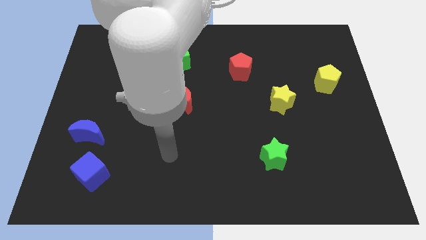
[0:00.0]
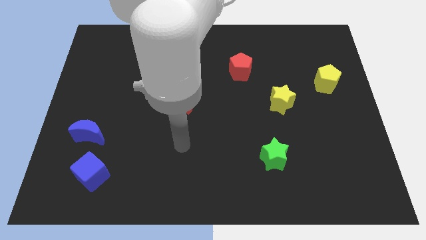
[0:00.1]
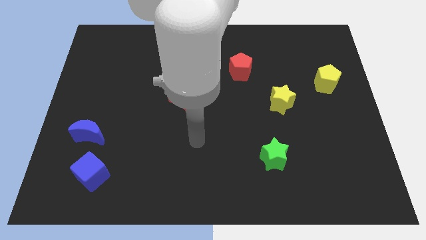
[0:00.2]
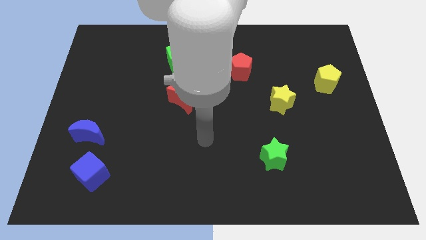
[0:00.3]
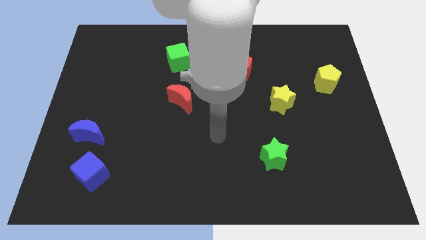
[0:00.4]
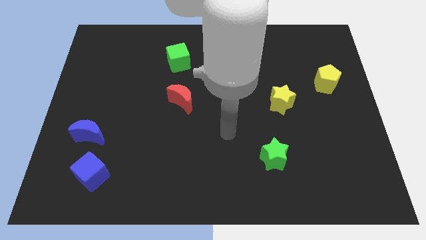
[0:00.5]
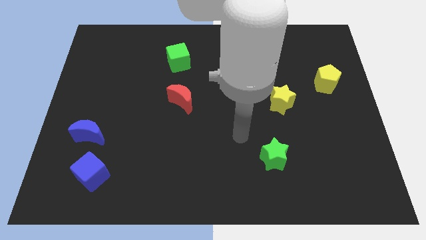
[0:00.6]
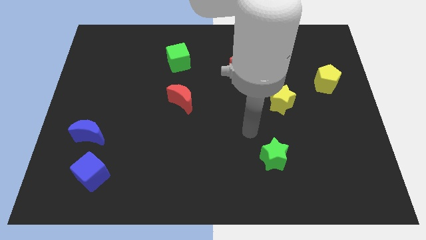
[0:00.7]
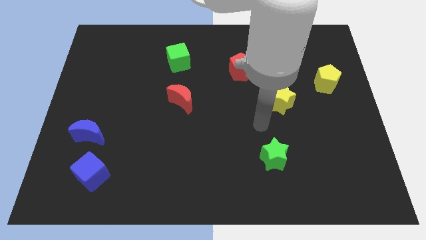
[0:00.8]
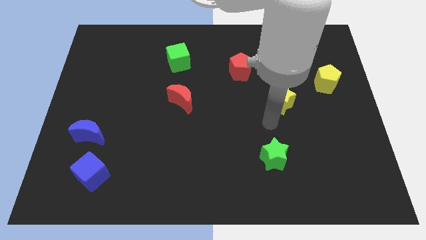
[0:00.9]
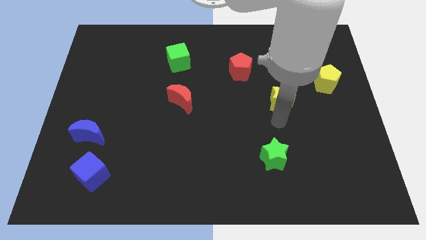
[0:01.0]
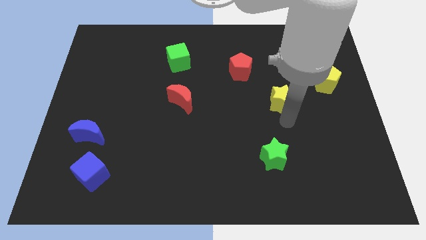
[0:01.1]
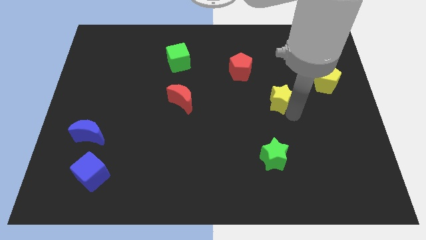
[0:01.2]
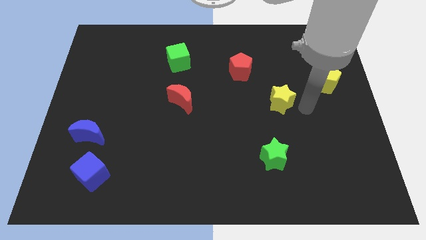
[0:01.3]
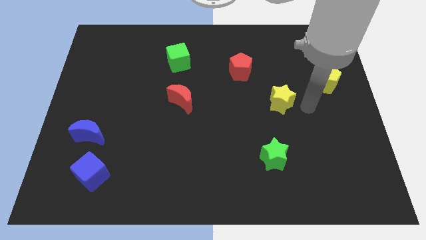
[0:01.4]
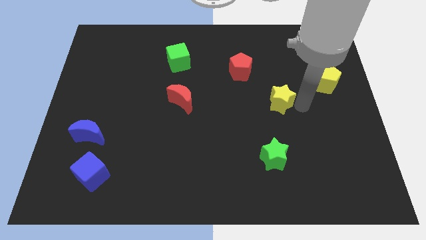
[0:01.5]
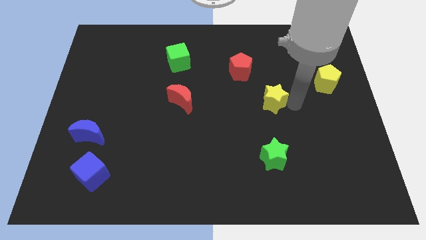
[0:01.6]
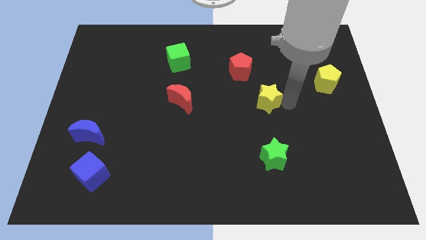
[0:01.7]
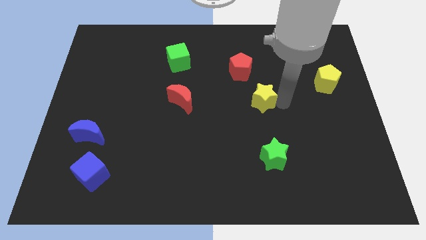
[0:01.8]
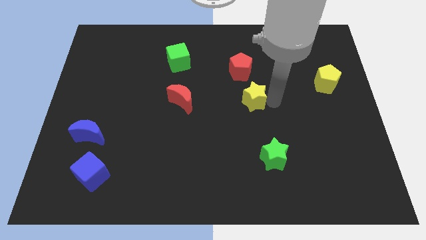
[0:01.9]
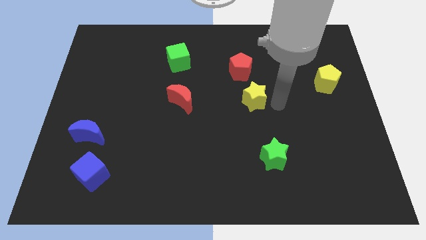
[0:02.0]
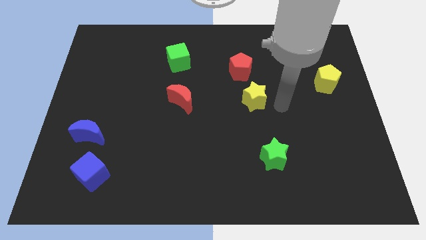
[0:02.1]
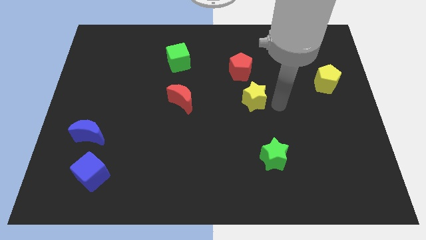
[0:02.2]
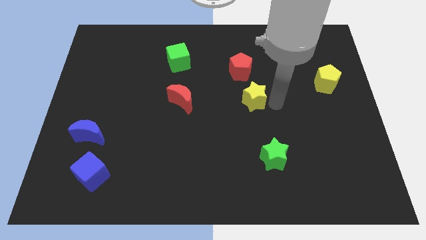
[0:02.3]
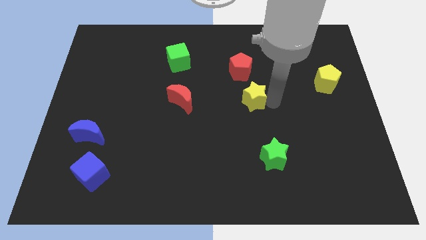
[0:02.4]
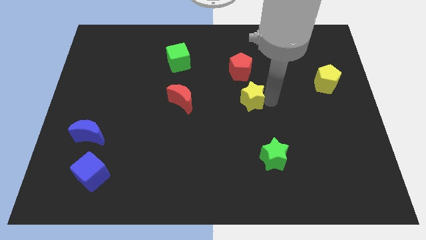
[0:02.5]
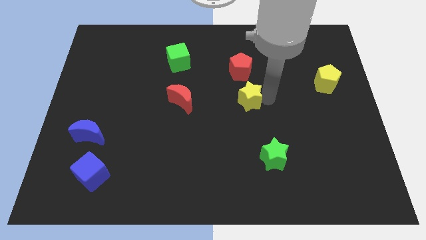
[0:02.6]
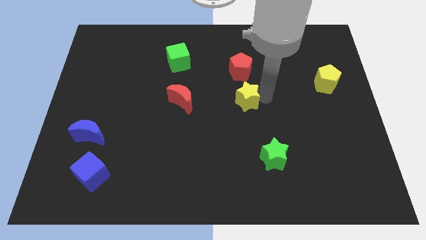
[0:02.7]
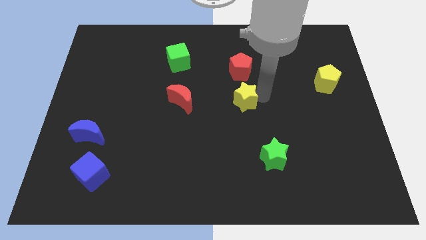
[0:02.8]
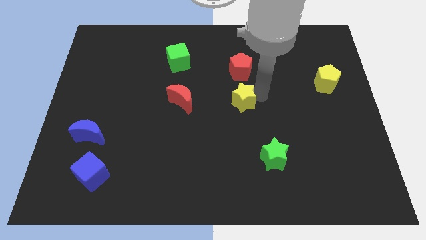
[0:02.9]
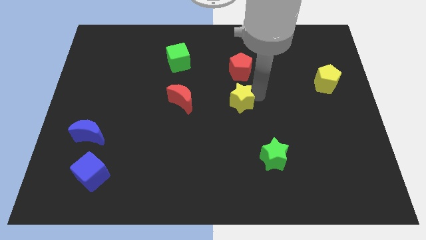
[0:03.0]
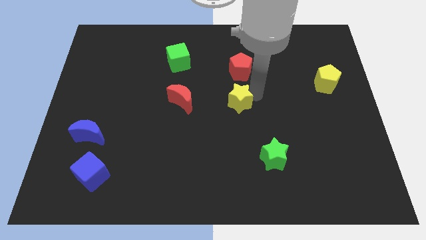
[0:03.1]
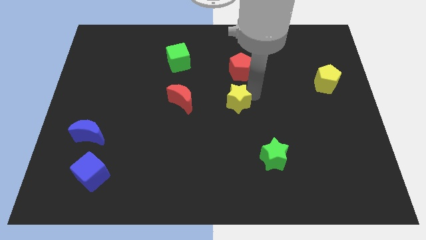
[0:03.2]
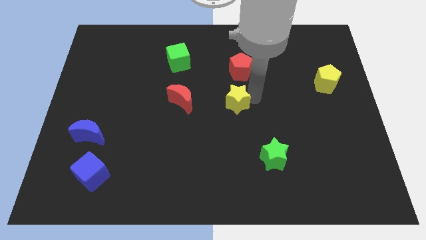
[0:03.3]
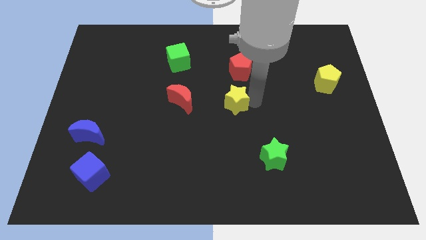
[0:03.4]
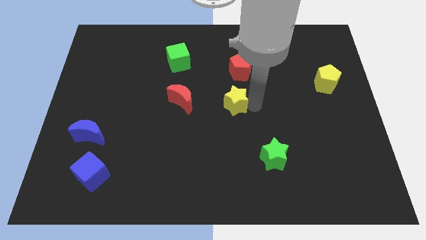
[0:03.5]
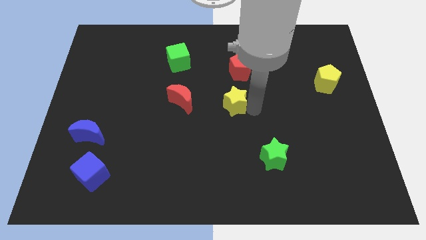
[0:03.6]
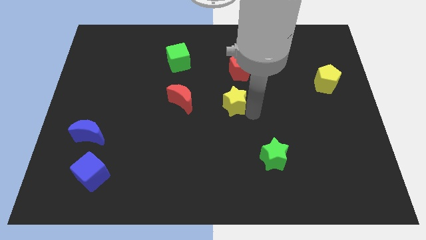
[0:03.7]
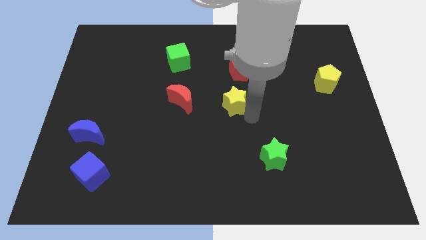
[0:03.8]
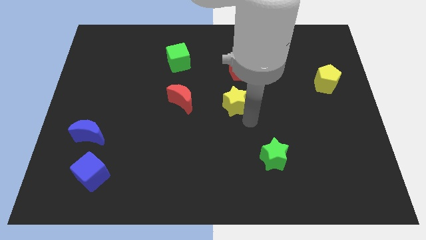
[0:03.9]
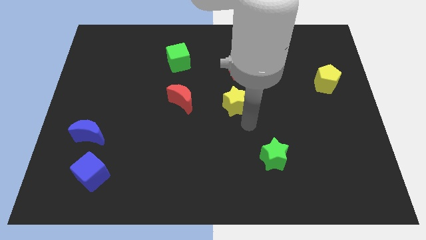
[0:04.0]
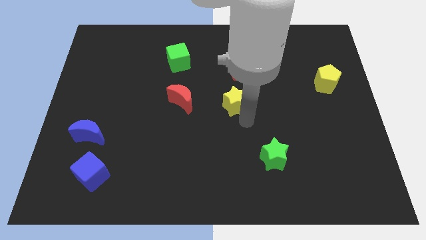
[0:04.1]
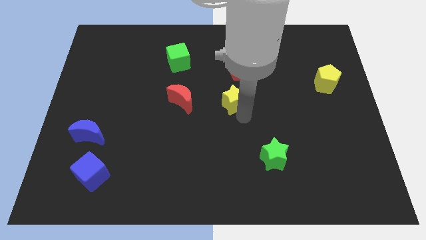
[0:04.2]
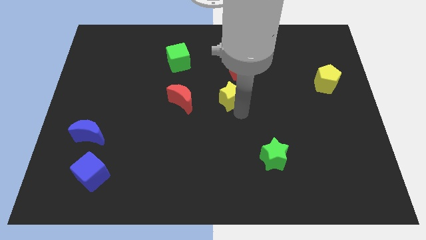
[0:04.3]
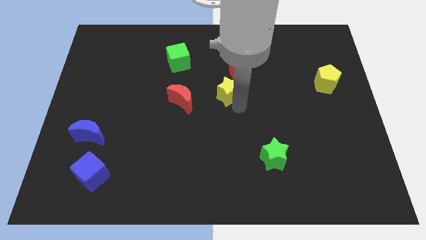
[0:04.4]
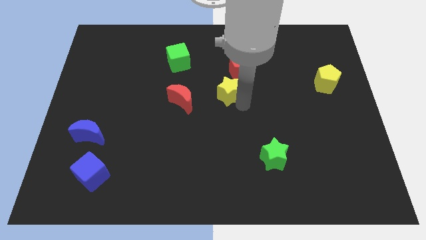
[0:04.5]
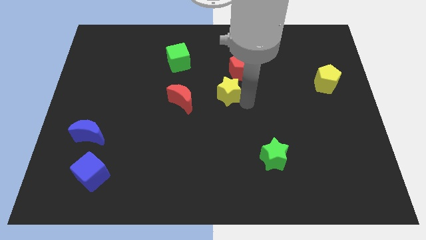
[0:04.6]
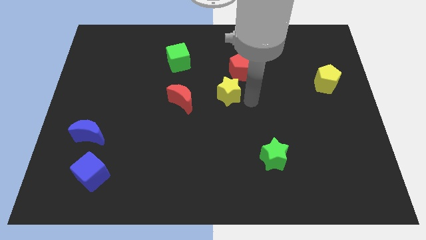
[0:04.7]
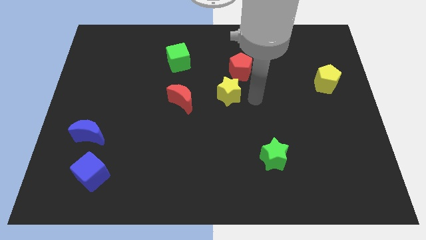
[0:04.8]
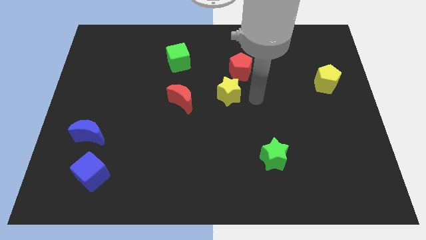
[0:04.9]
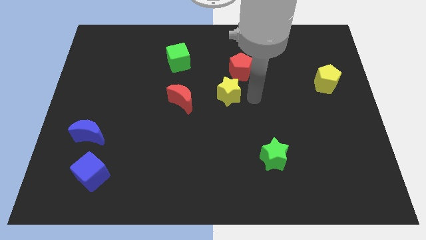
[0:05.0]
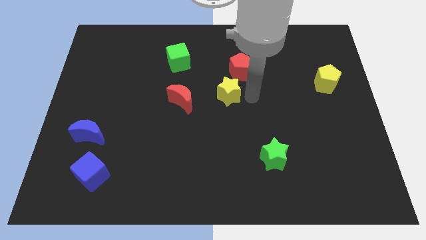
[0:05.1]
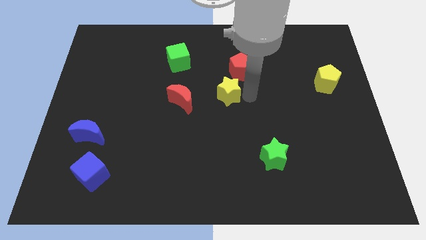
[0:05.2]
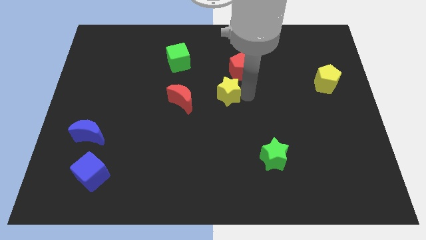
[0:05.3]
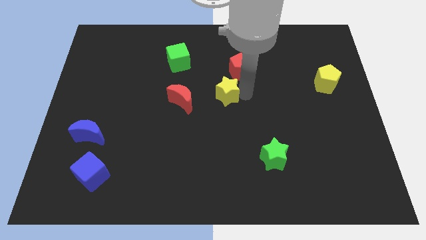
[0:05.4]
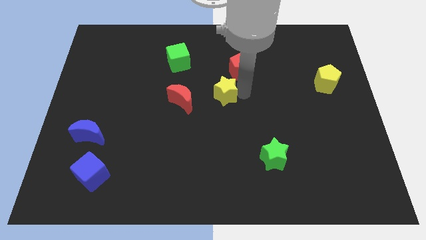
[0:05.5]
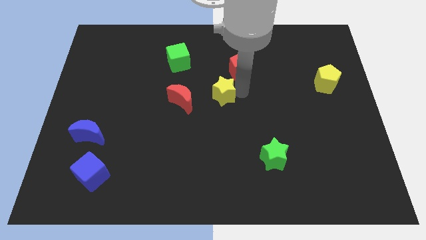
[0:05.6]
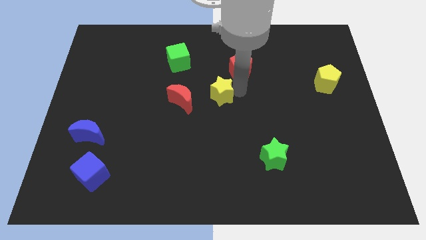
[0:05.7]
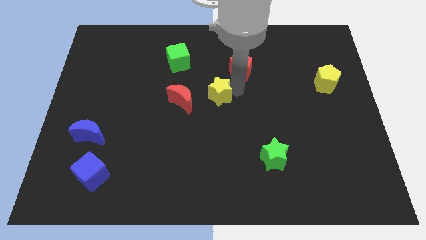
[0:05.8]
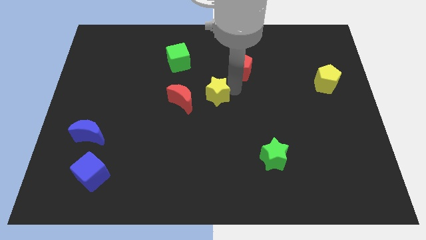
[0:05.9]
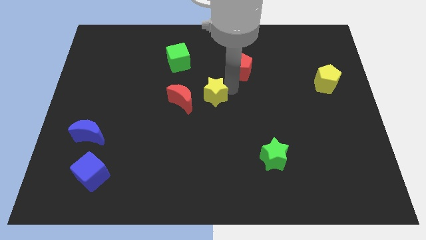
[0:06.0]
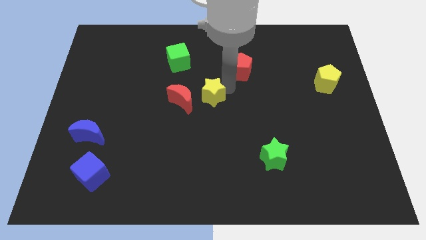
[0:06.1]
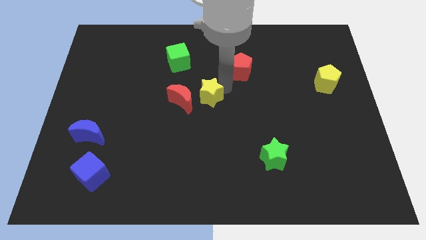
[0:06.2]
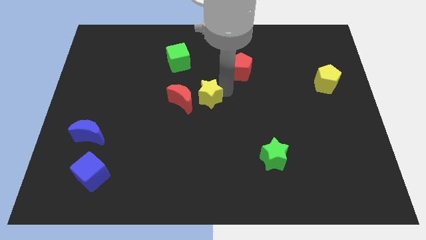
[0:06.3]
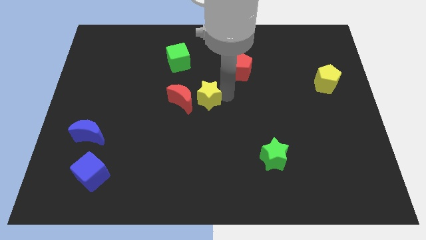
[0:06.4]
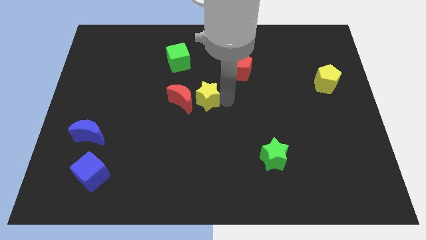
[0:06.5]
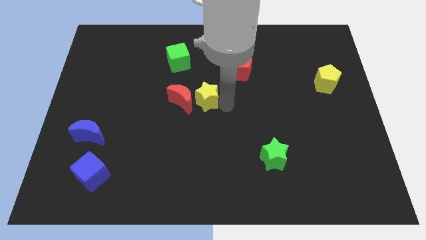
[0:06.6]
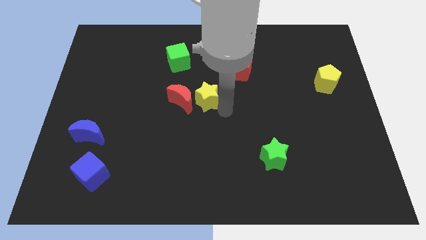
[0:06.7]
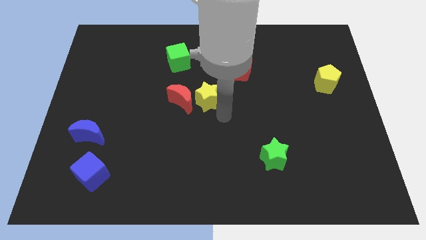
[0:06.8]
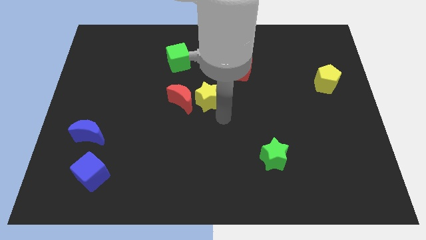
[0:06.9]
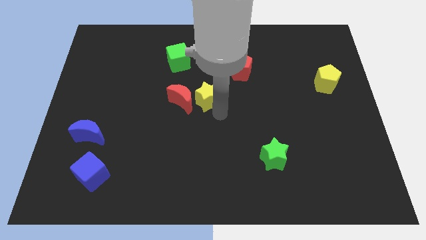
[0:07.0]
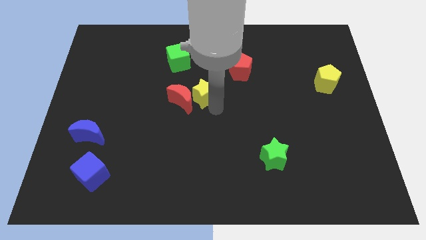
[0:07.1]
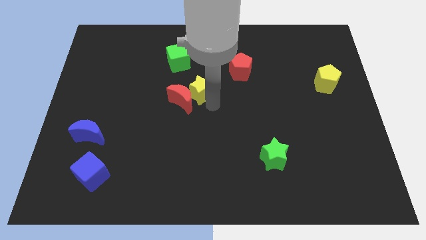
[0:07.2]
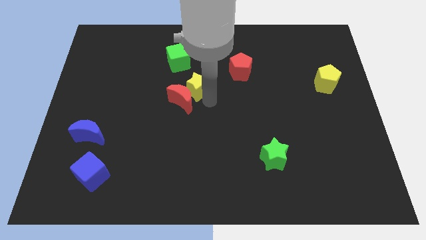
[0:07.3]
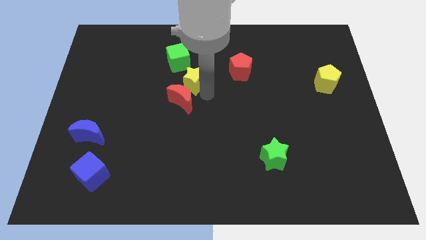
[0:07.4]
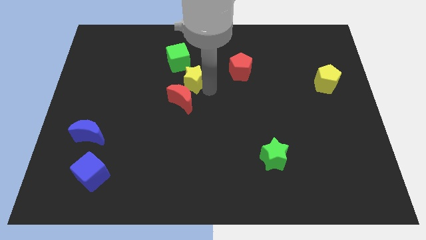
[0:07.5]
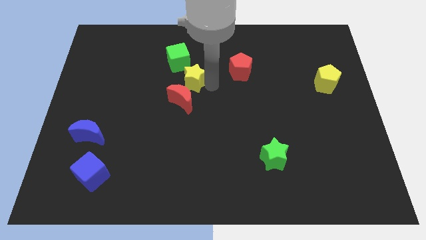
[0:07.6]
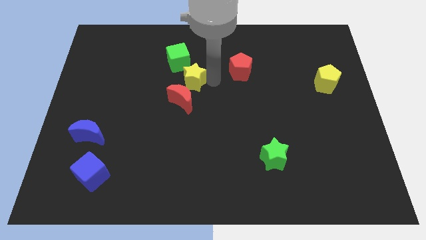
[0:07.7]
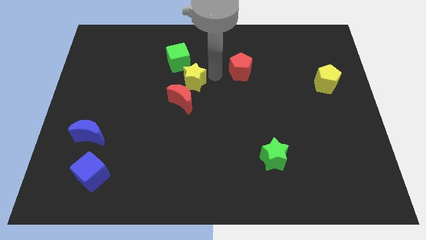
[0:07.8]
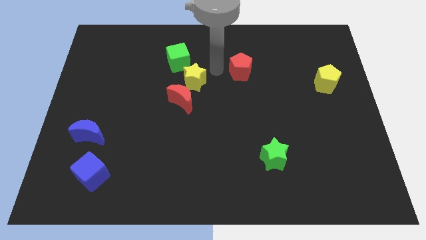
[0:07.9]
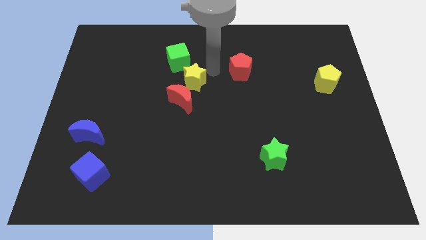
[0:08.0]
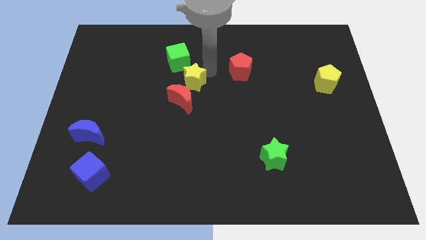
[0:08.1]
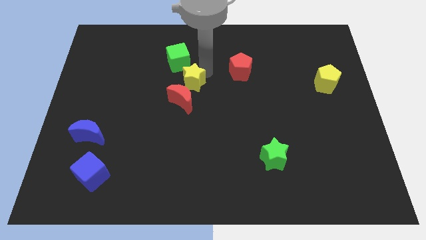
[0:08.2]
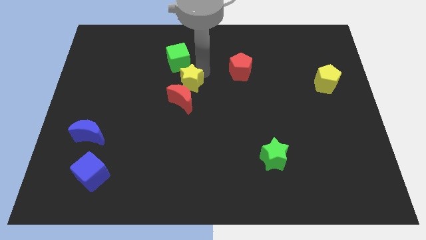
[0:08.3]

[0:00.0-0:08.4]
move the yellow star to the left
